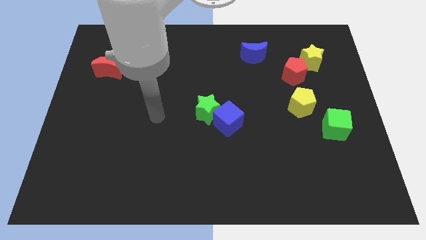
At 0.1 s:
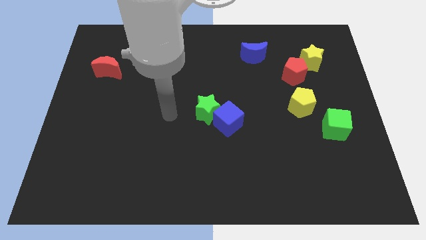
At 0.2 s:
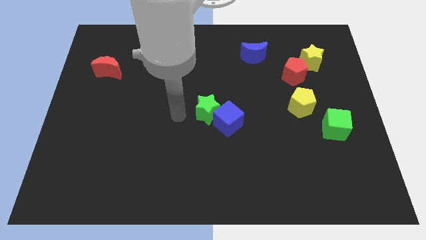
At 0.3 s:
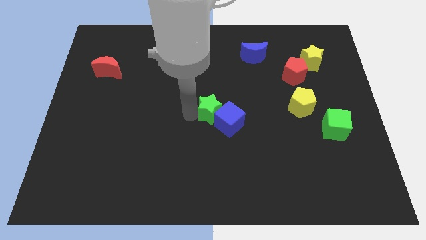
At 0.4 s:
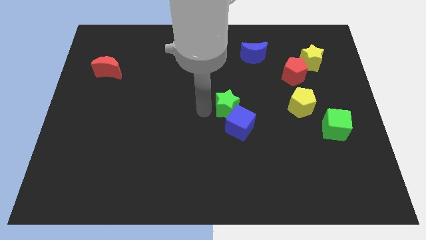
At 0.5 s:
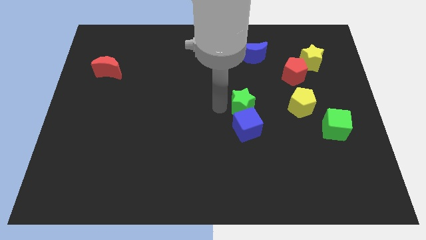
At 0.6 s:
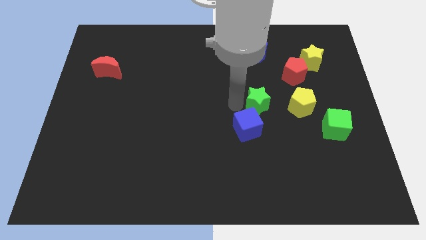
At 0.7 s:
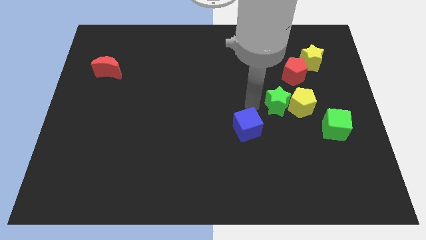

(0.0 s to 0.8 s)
pull the blue cube apart from the green star

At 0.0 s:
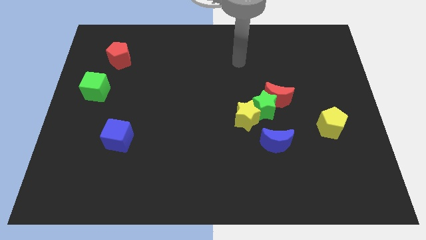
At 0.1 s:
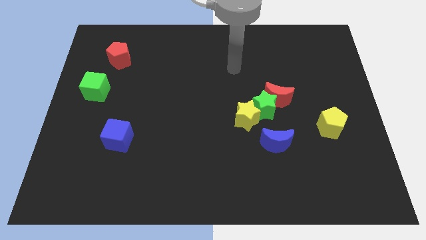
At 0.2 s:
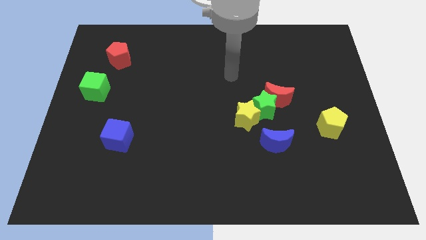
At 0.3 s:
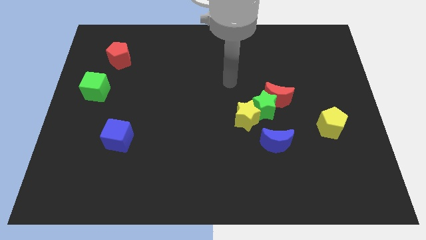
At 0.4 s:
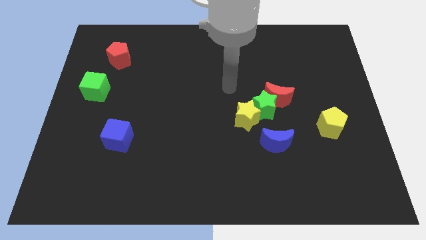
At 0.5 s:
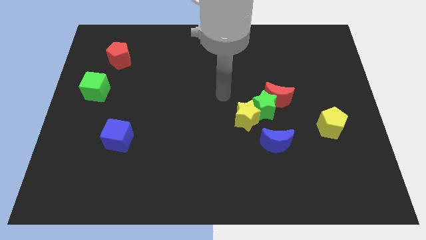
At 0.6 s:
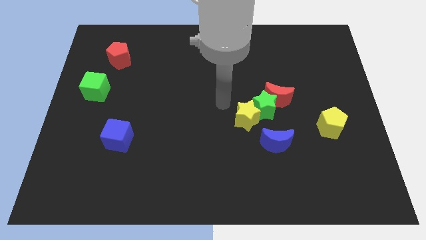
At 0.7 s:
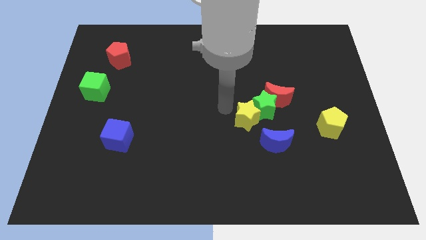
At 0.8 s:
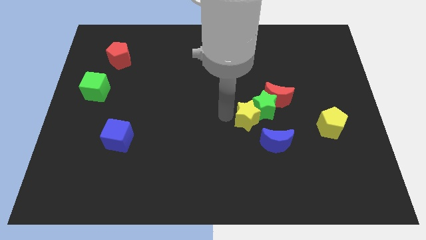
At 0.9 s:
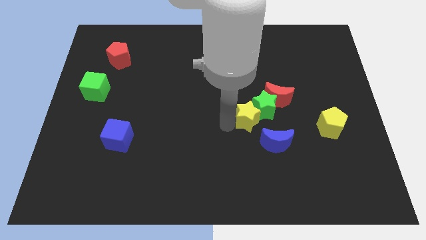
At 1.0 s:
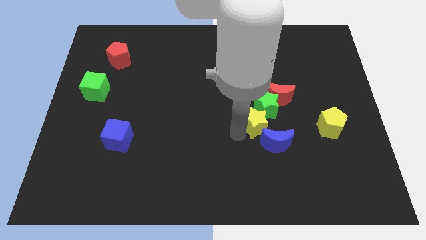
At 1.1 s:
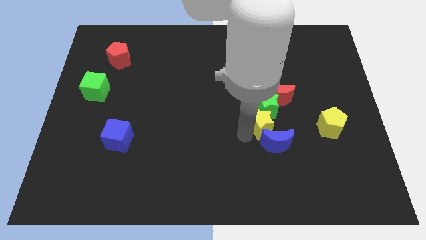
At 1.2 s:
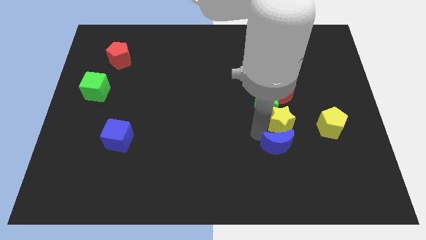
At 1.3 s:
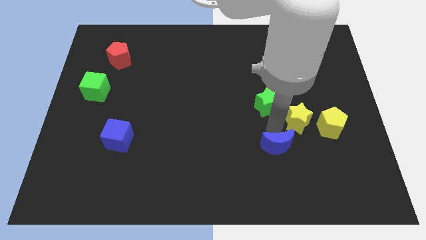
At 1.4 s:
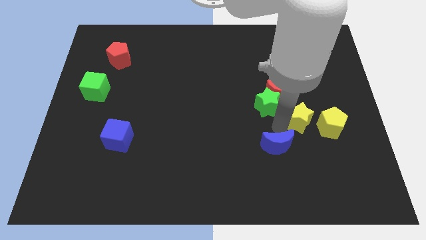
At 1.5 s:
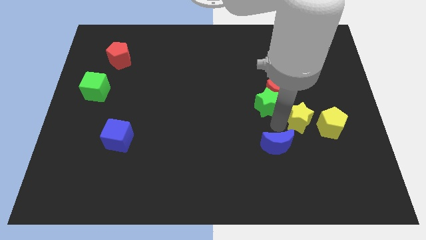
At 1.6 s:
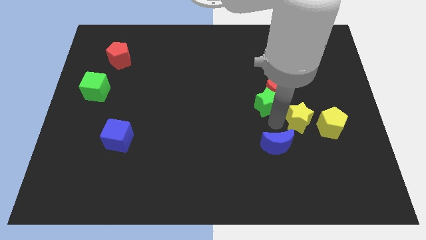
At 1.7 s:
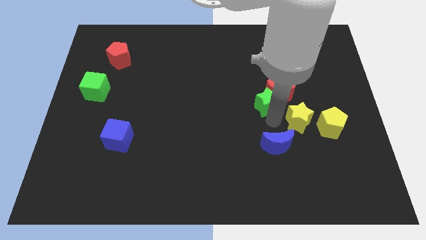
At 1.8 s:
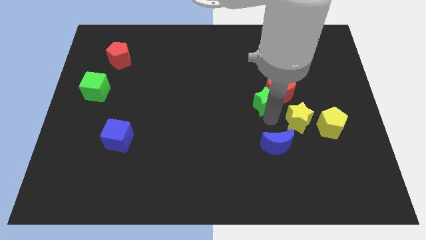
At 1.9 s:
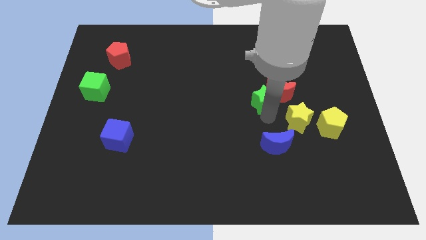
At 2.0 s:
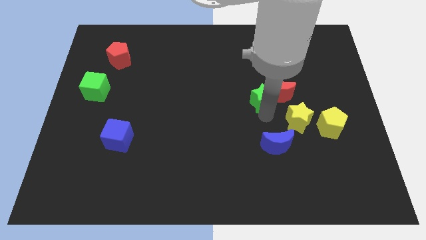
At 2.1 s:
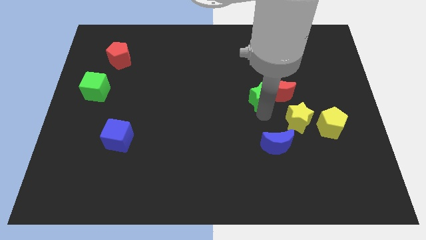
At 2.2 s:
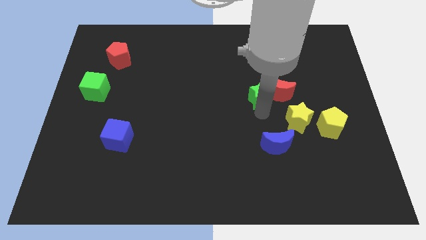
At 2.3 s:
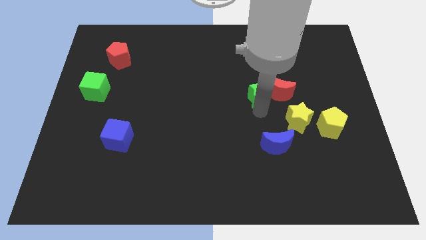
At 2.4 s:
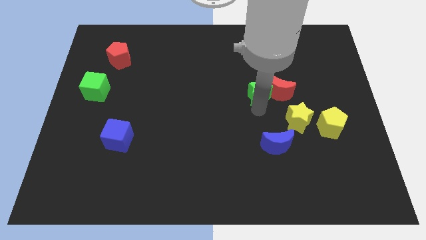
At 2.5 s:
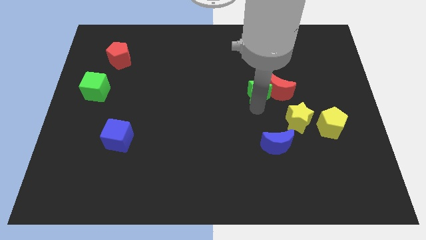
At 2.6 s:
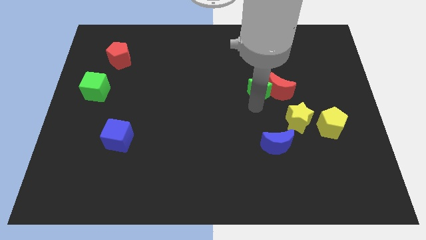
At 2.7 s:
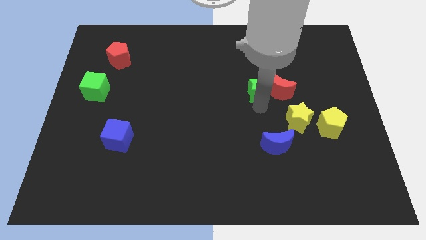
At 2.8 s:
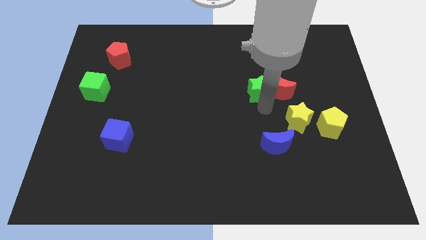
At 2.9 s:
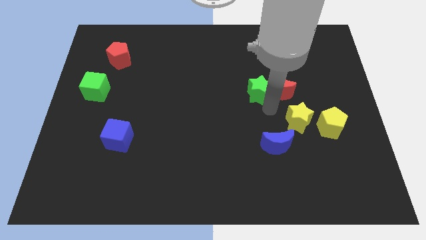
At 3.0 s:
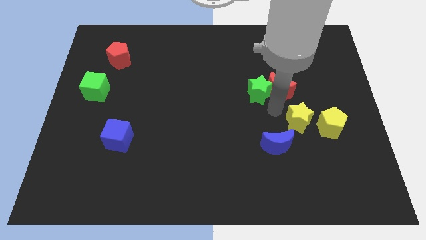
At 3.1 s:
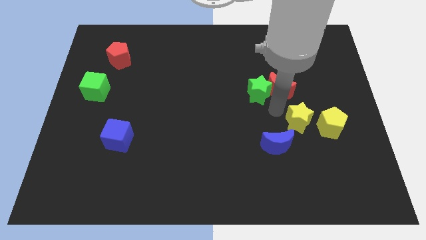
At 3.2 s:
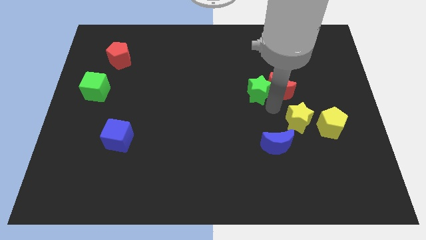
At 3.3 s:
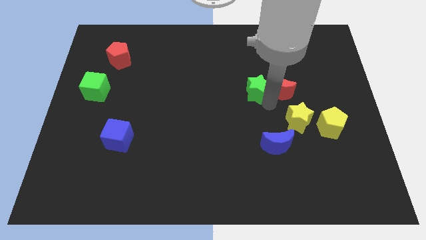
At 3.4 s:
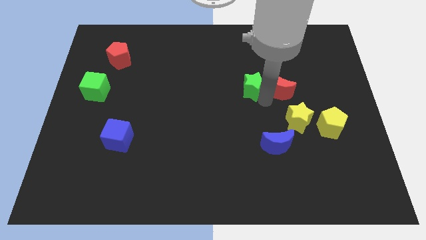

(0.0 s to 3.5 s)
separate the green star from the red moon, yellow star, and blue moon

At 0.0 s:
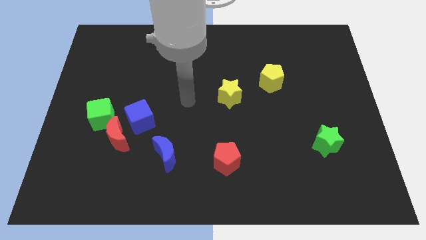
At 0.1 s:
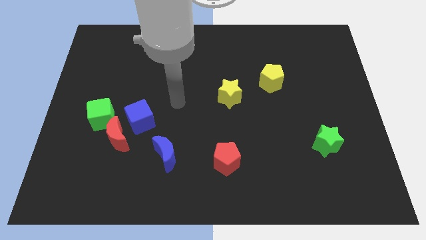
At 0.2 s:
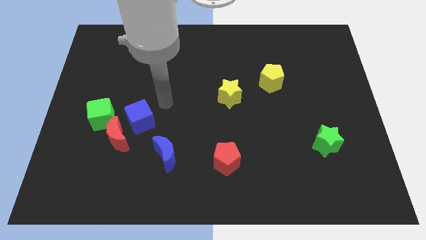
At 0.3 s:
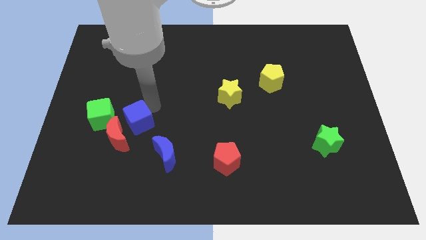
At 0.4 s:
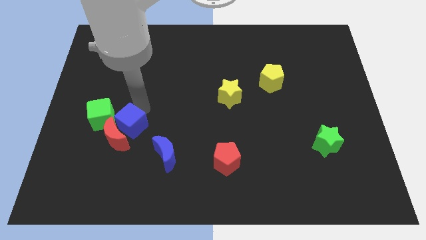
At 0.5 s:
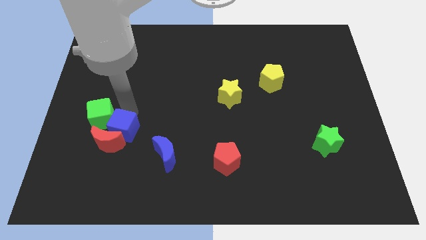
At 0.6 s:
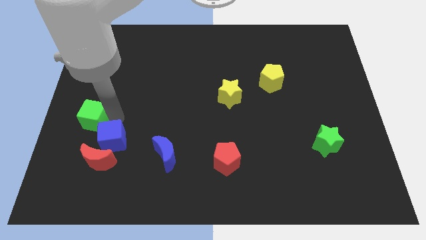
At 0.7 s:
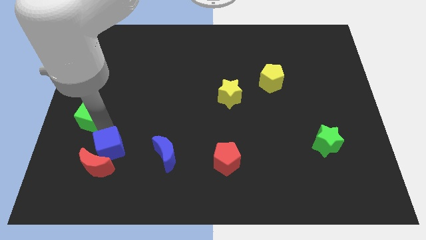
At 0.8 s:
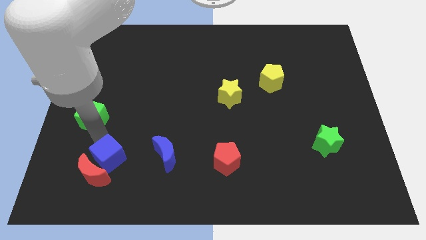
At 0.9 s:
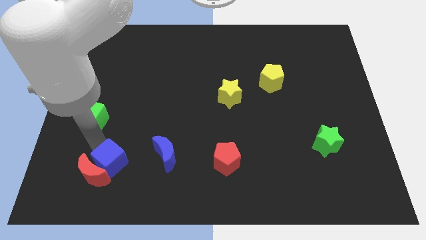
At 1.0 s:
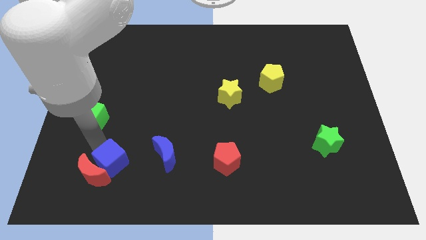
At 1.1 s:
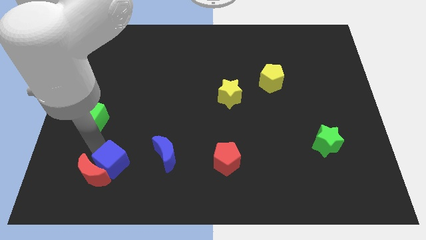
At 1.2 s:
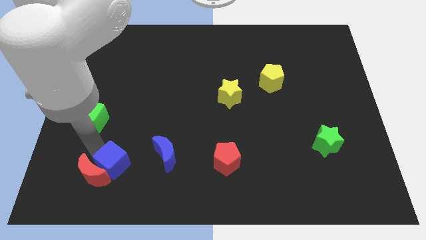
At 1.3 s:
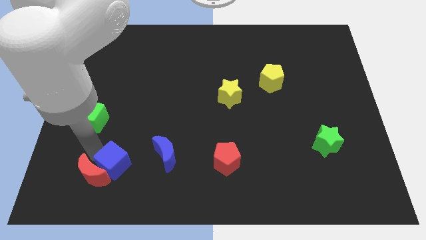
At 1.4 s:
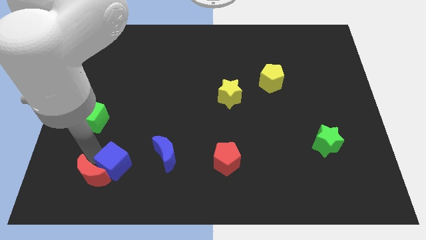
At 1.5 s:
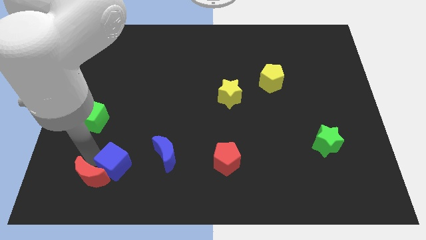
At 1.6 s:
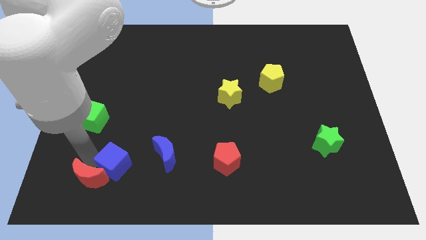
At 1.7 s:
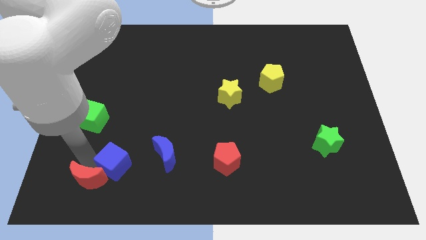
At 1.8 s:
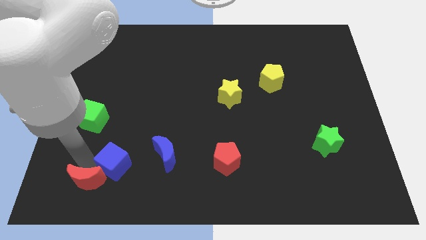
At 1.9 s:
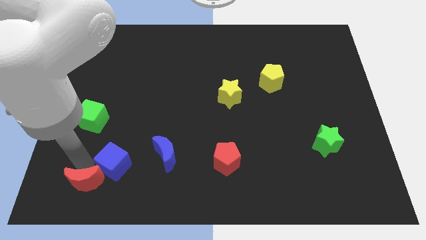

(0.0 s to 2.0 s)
move the red moon away from the blue cube and green cube

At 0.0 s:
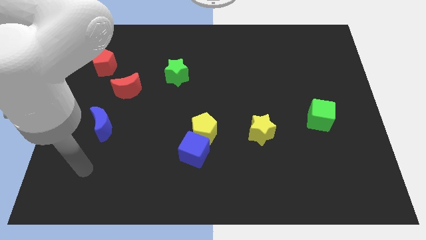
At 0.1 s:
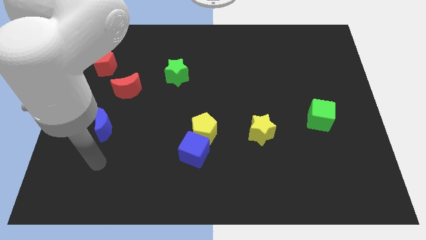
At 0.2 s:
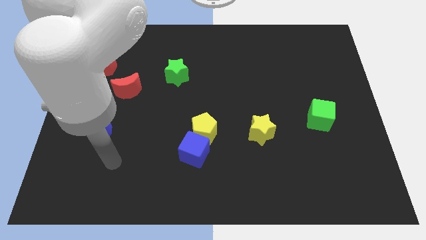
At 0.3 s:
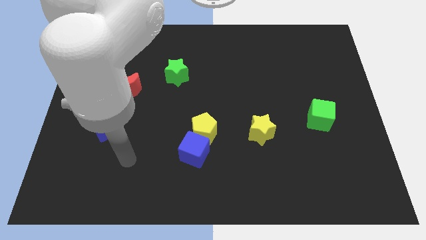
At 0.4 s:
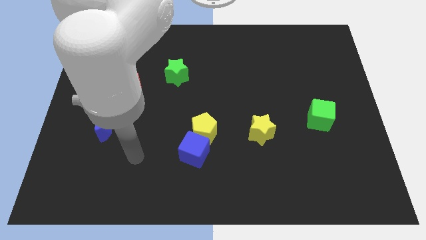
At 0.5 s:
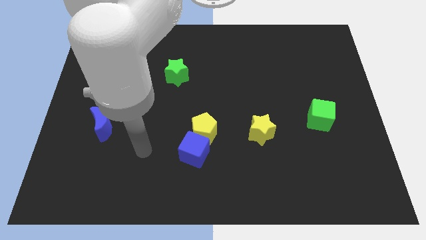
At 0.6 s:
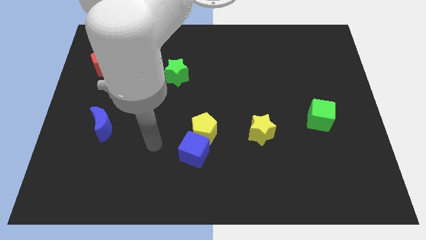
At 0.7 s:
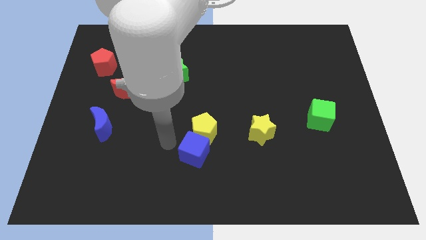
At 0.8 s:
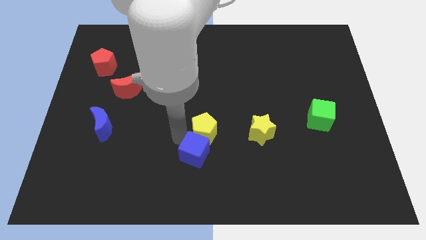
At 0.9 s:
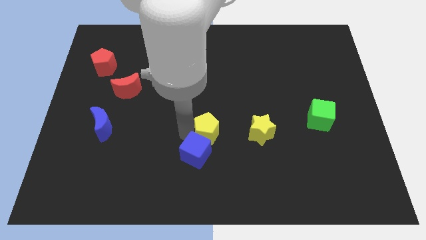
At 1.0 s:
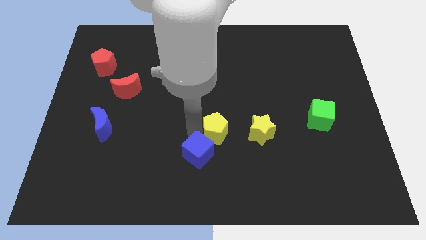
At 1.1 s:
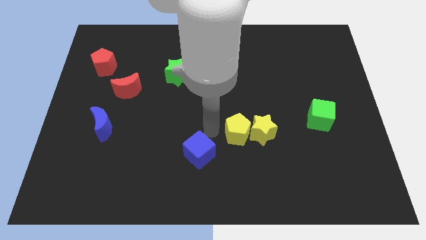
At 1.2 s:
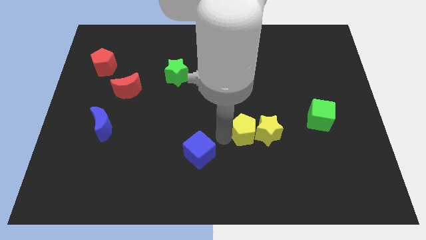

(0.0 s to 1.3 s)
separate the blue cube from the yellow pentagon

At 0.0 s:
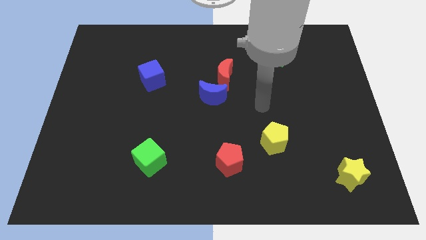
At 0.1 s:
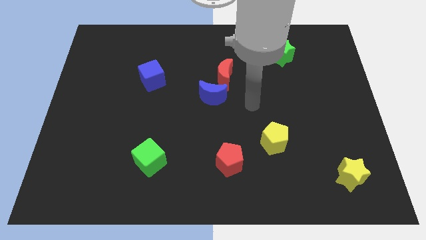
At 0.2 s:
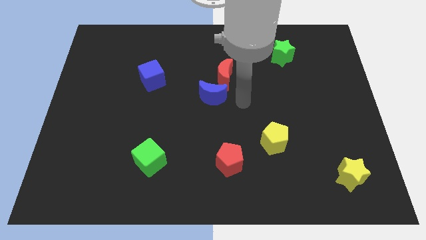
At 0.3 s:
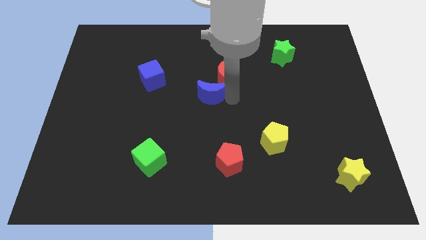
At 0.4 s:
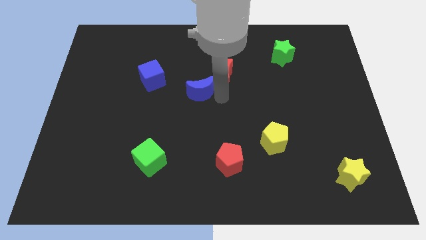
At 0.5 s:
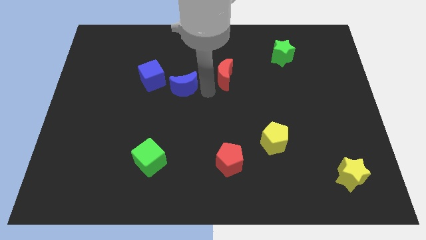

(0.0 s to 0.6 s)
separate the red moon from the blue moon

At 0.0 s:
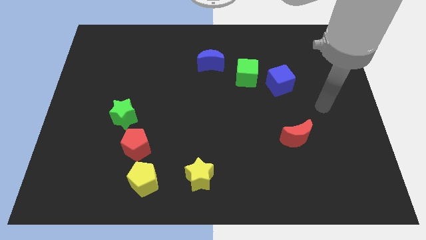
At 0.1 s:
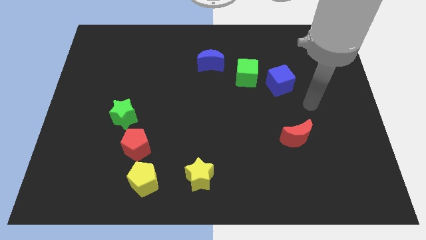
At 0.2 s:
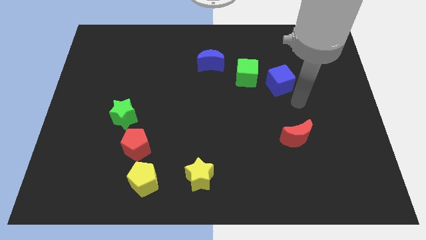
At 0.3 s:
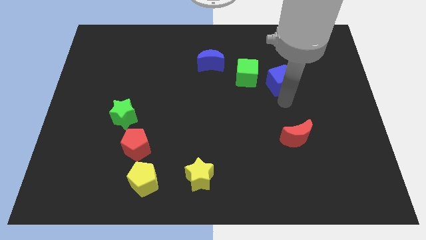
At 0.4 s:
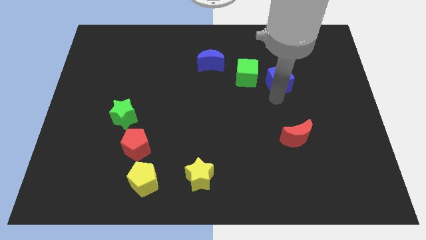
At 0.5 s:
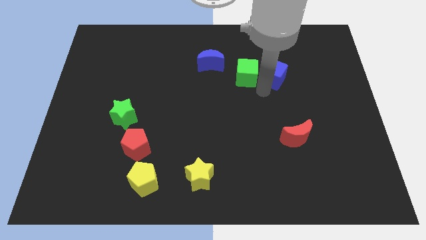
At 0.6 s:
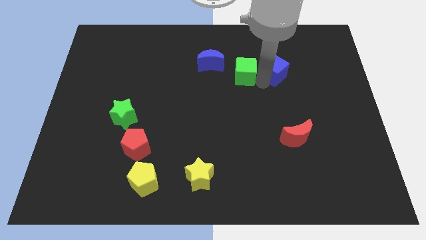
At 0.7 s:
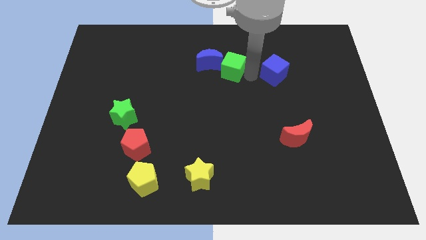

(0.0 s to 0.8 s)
pull the blue cube apart from the green cube

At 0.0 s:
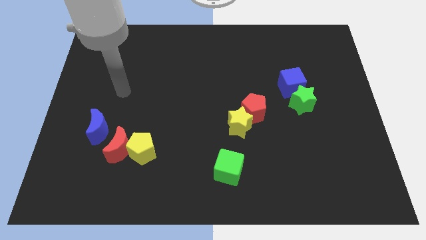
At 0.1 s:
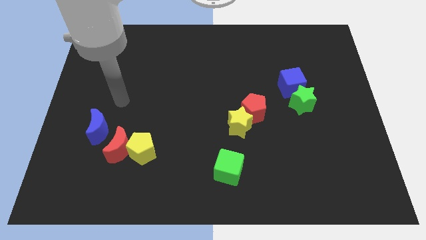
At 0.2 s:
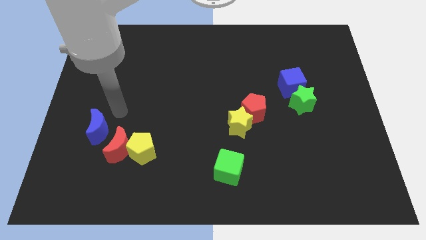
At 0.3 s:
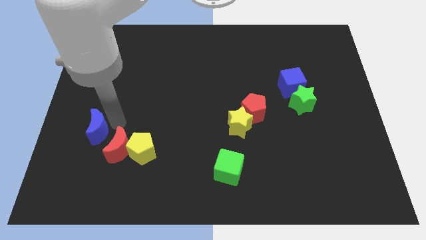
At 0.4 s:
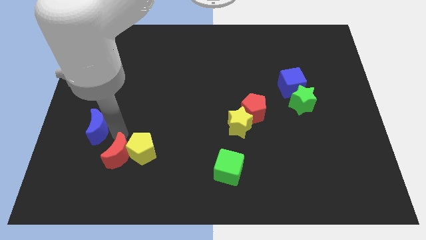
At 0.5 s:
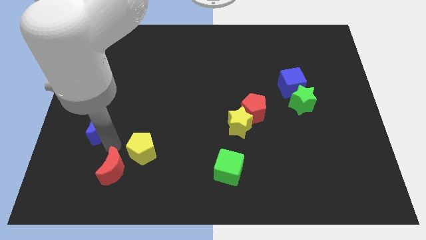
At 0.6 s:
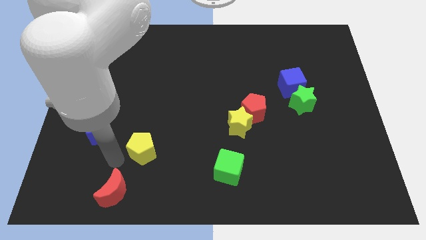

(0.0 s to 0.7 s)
move the yellow pentagon away from the red moon
